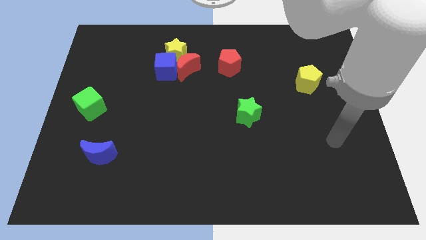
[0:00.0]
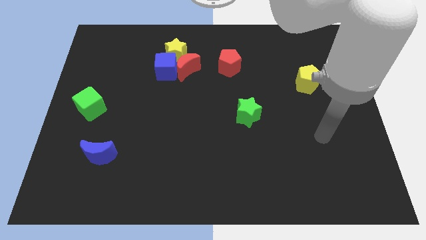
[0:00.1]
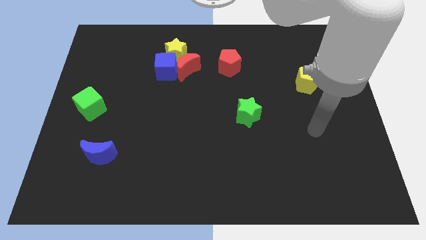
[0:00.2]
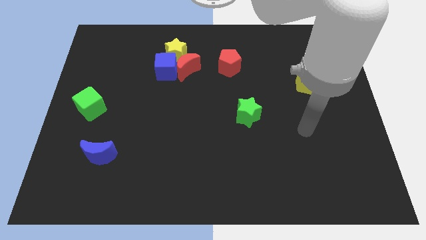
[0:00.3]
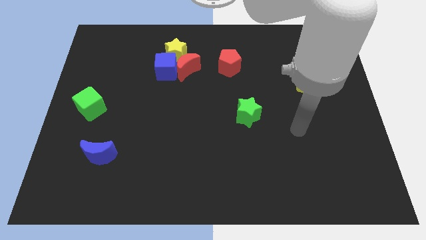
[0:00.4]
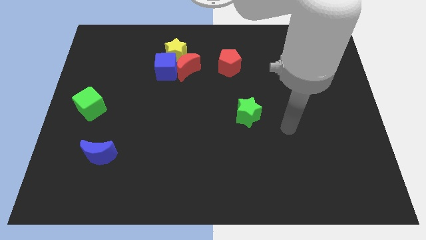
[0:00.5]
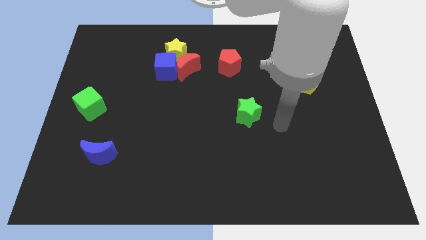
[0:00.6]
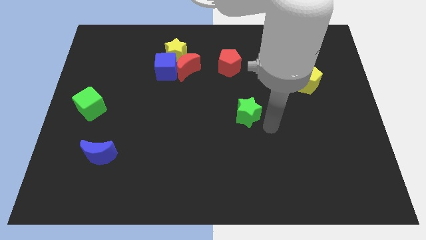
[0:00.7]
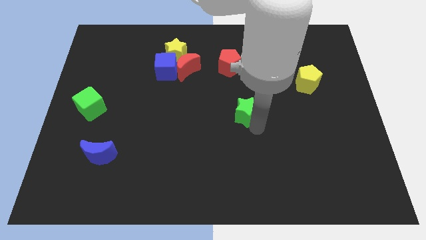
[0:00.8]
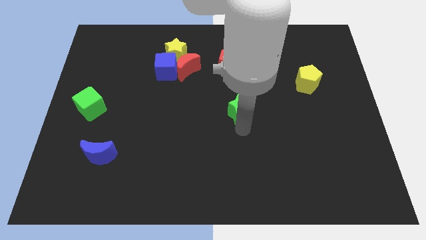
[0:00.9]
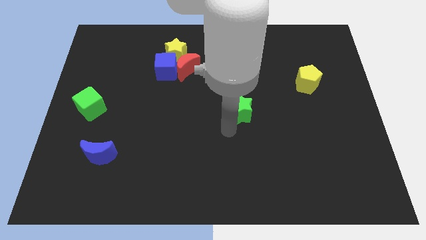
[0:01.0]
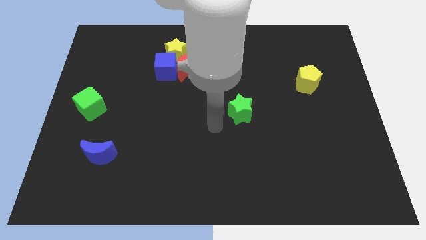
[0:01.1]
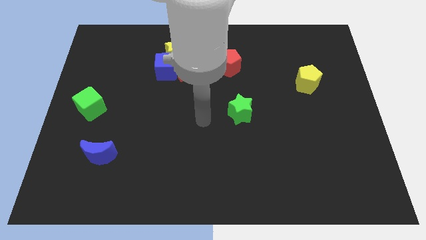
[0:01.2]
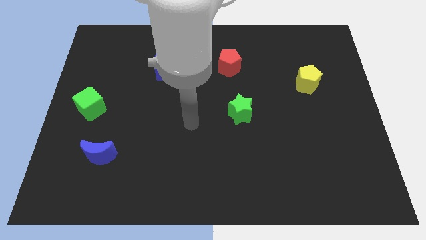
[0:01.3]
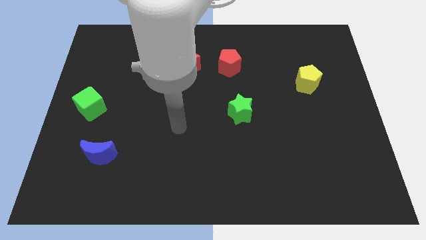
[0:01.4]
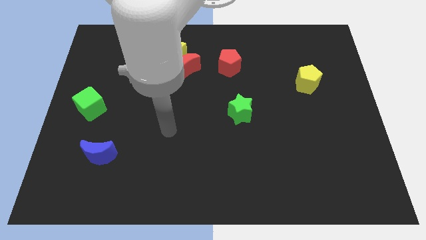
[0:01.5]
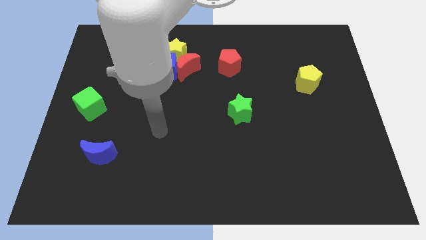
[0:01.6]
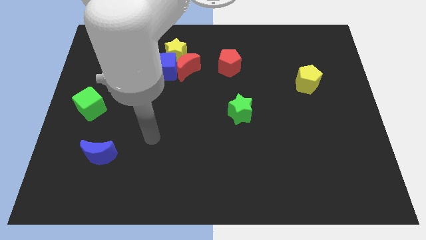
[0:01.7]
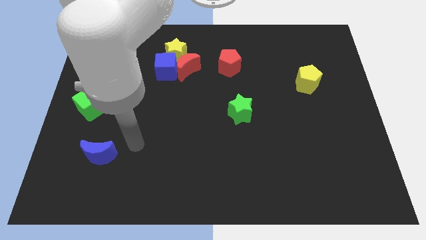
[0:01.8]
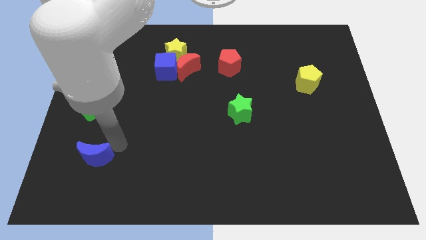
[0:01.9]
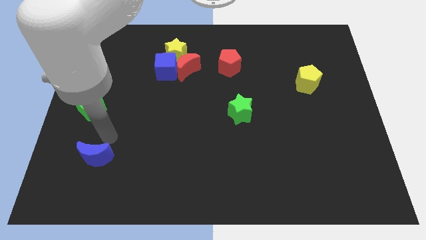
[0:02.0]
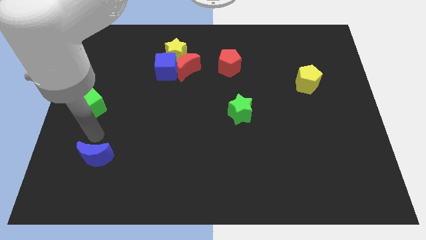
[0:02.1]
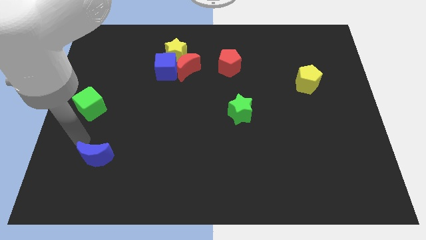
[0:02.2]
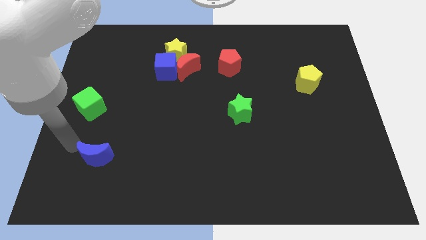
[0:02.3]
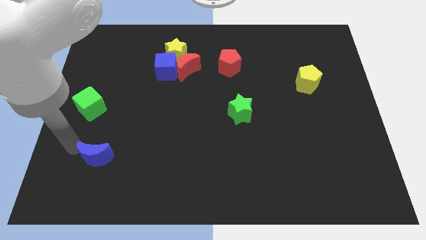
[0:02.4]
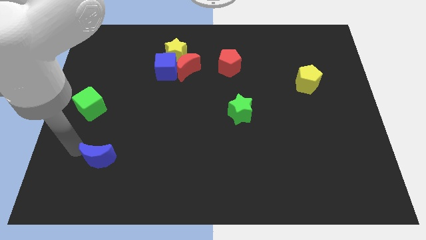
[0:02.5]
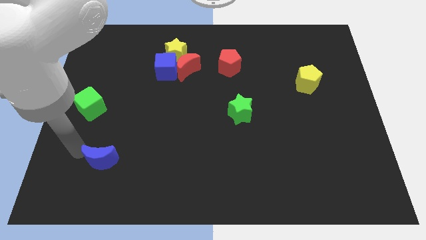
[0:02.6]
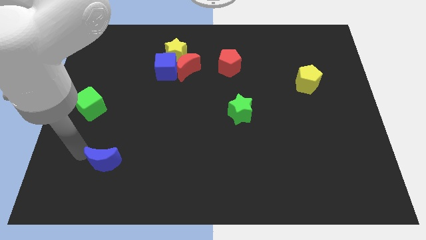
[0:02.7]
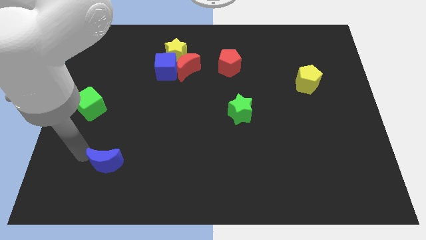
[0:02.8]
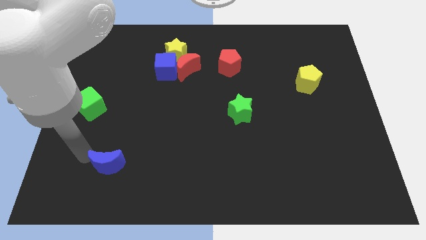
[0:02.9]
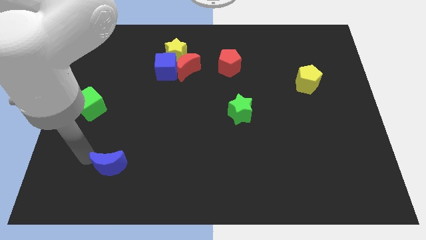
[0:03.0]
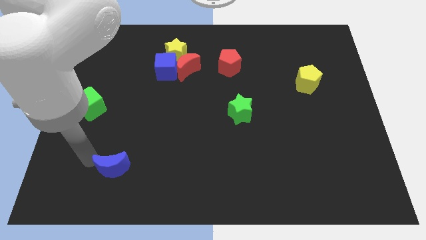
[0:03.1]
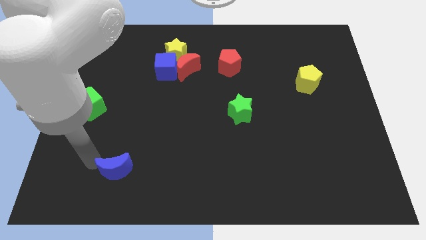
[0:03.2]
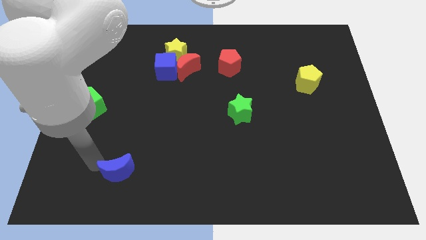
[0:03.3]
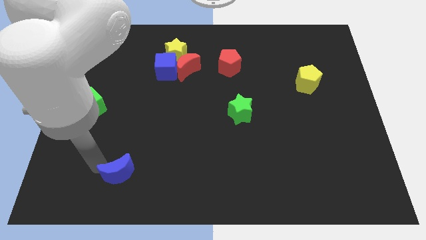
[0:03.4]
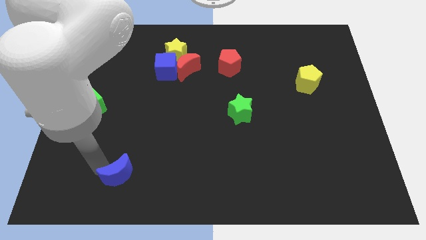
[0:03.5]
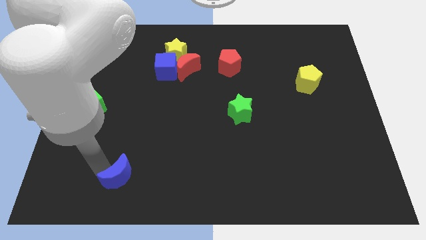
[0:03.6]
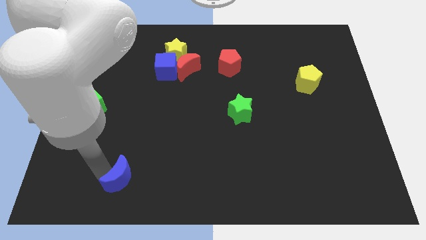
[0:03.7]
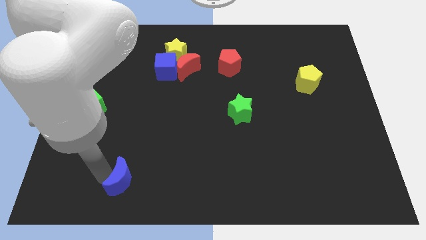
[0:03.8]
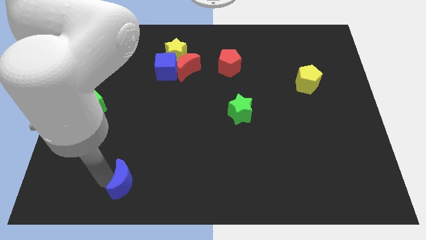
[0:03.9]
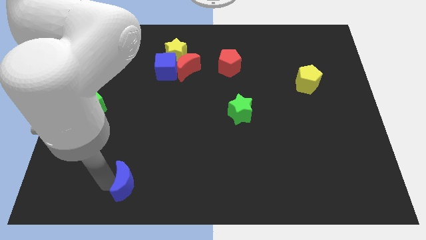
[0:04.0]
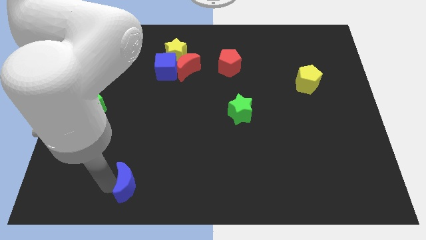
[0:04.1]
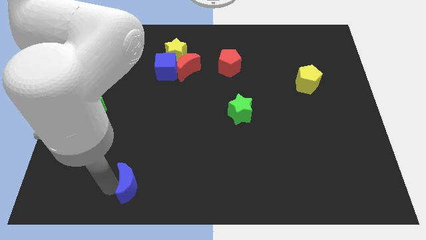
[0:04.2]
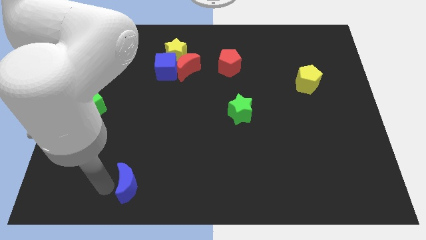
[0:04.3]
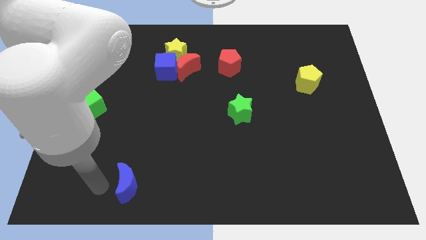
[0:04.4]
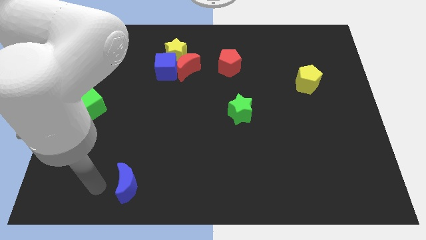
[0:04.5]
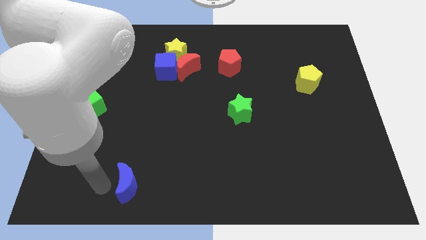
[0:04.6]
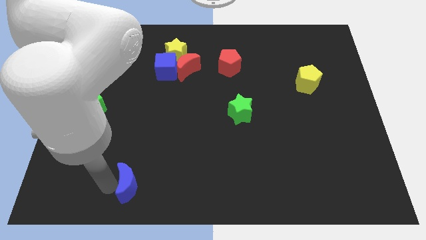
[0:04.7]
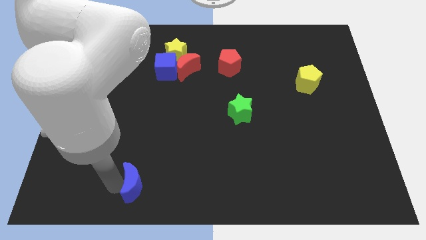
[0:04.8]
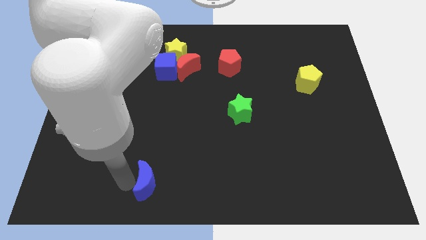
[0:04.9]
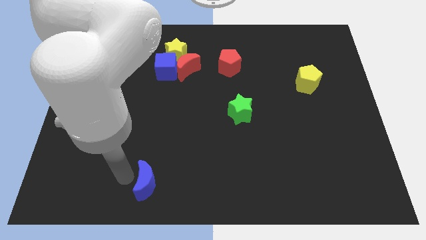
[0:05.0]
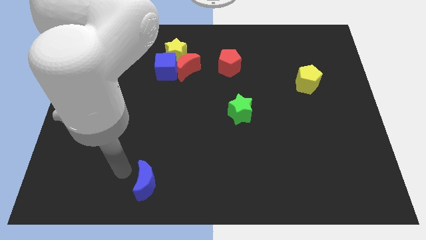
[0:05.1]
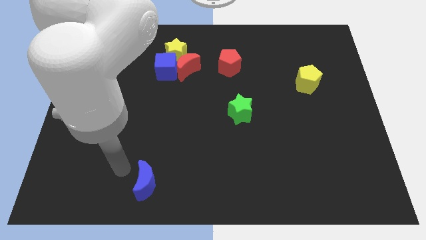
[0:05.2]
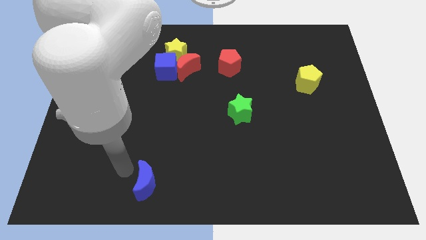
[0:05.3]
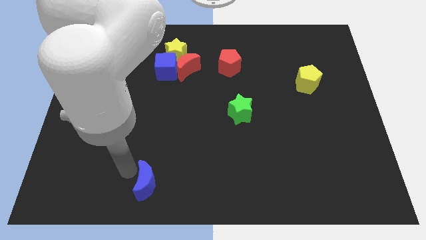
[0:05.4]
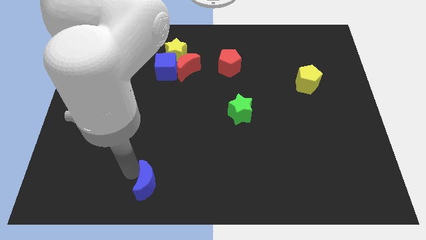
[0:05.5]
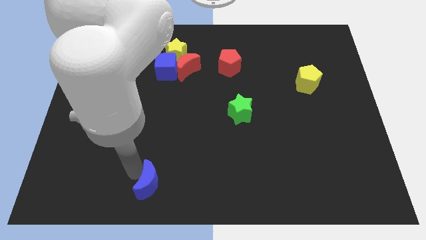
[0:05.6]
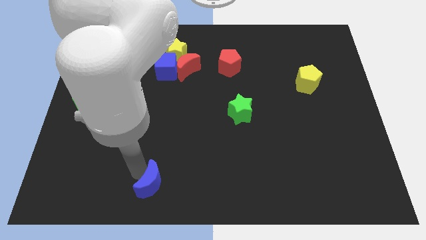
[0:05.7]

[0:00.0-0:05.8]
slide the blue moon to the bottom
